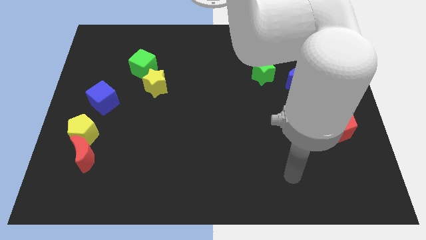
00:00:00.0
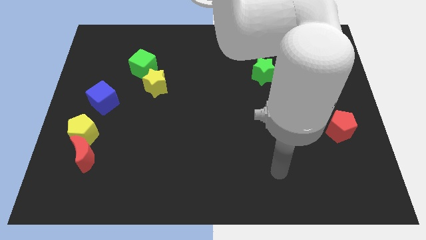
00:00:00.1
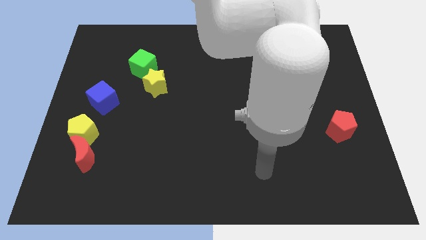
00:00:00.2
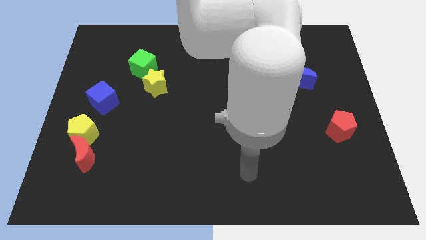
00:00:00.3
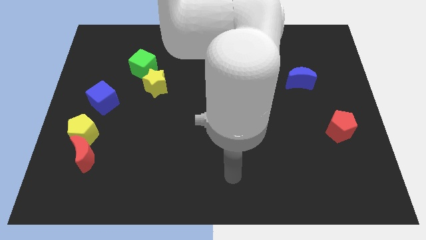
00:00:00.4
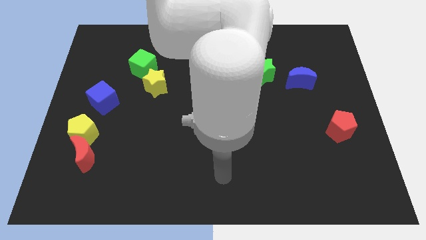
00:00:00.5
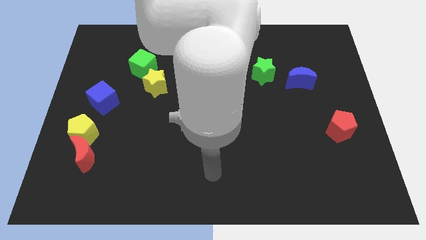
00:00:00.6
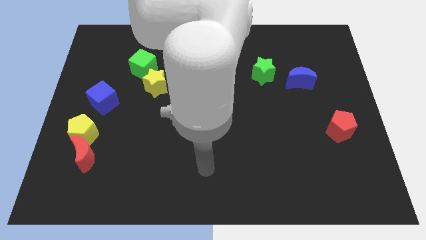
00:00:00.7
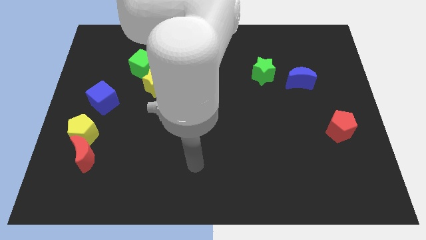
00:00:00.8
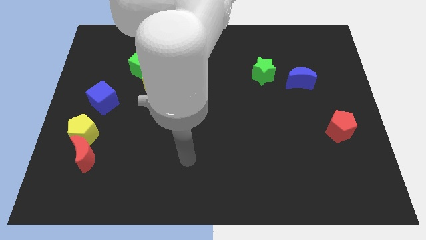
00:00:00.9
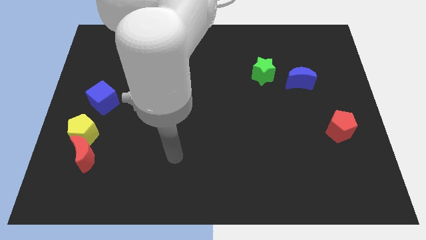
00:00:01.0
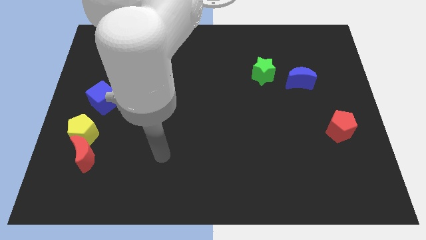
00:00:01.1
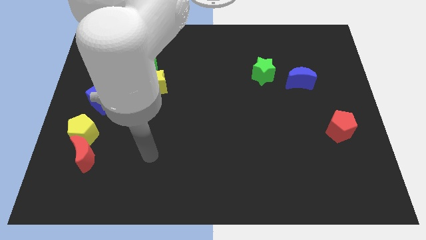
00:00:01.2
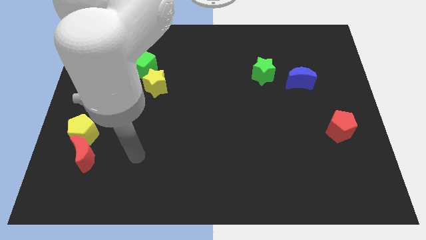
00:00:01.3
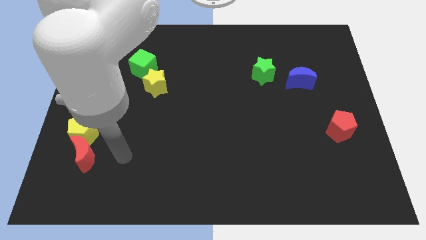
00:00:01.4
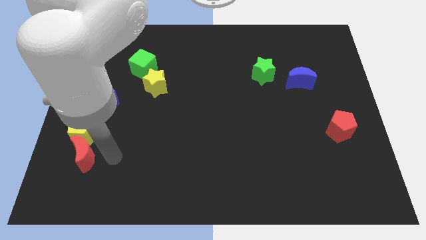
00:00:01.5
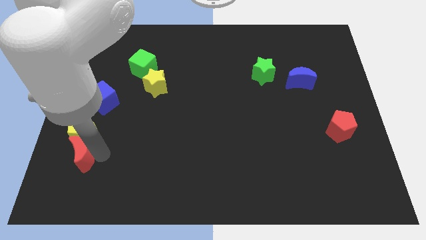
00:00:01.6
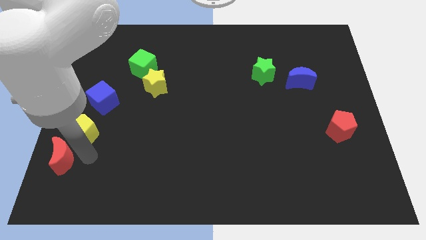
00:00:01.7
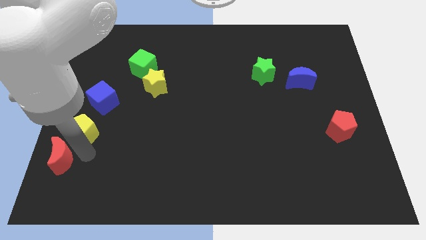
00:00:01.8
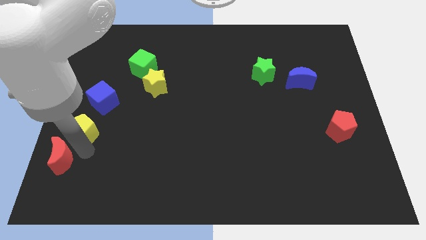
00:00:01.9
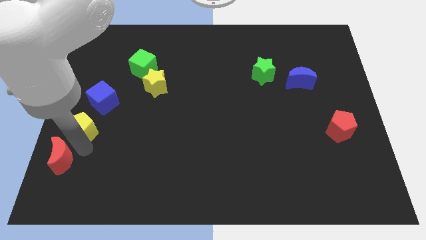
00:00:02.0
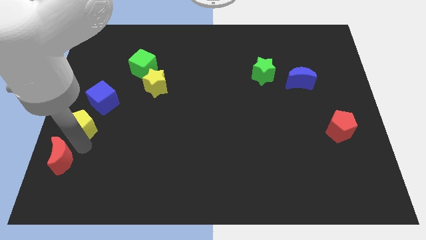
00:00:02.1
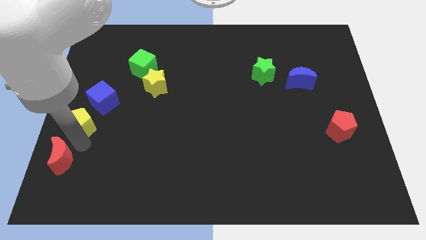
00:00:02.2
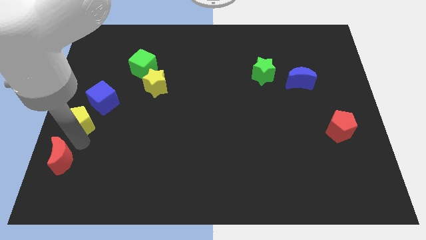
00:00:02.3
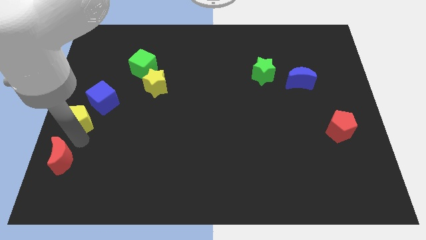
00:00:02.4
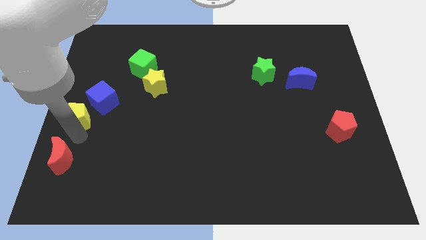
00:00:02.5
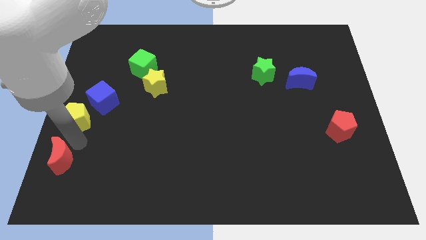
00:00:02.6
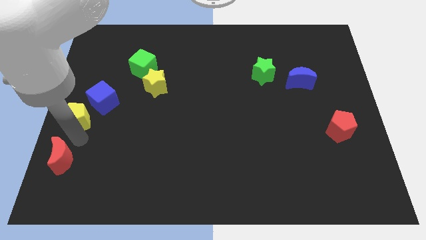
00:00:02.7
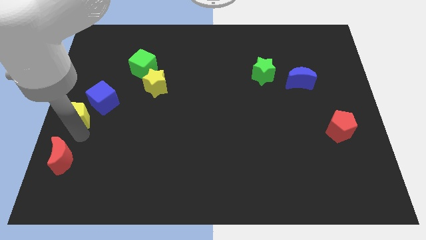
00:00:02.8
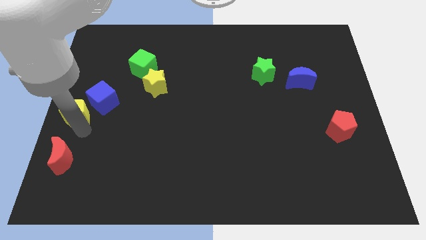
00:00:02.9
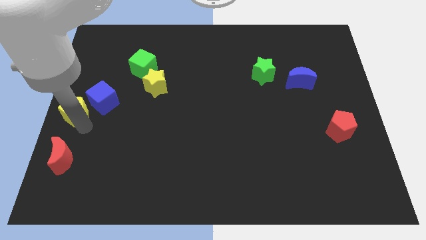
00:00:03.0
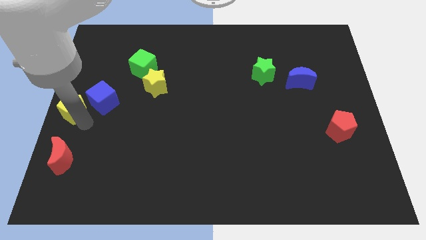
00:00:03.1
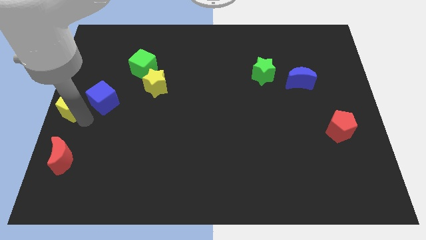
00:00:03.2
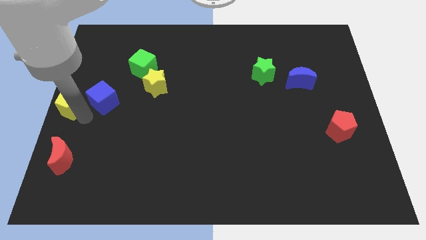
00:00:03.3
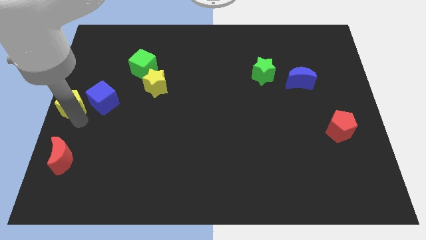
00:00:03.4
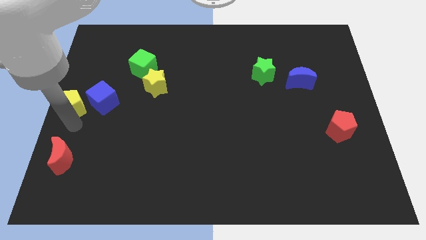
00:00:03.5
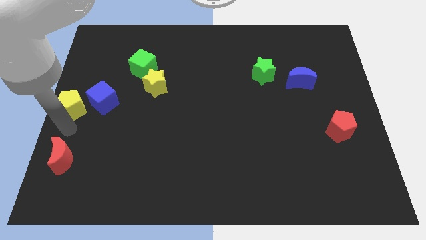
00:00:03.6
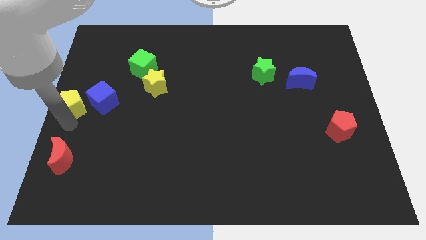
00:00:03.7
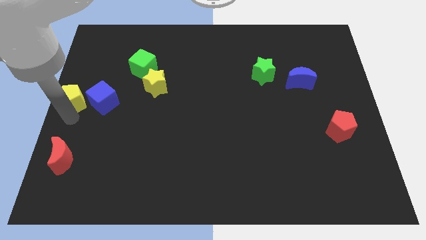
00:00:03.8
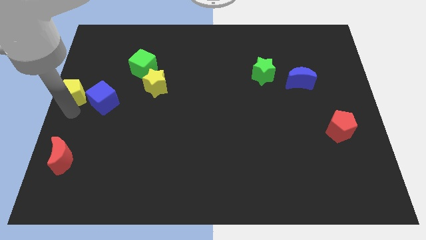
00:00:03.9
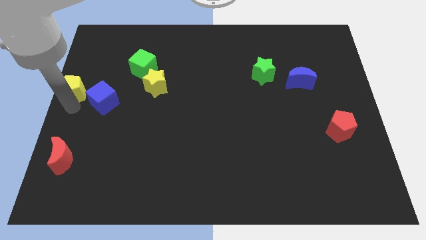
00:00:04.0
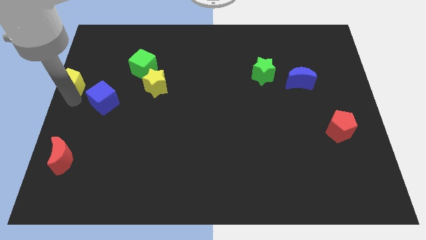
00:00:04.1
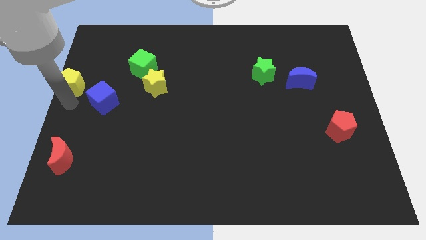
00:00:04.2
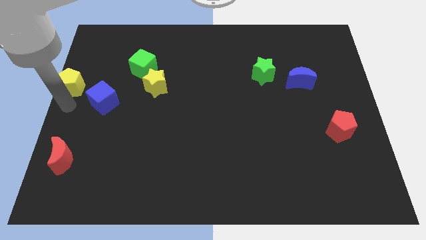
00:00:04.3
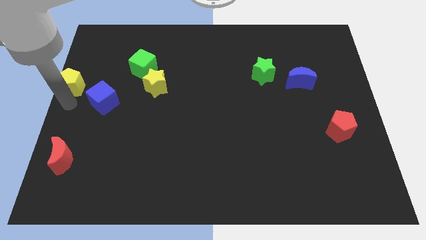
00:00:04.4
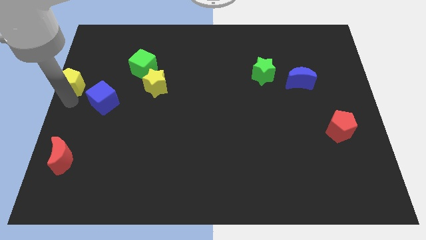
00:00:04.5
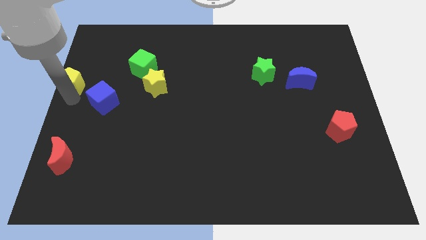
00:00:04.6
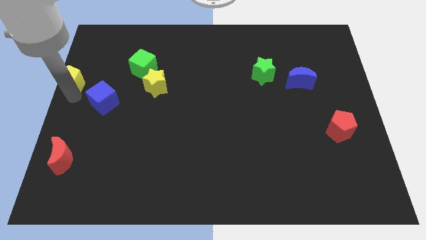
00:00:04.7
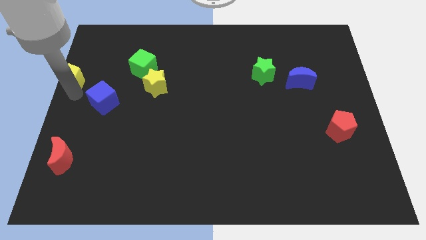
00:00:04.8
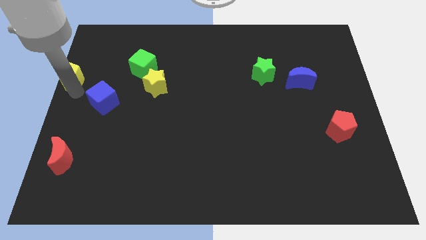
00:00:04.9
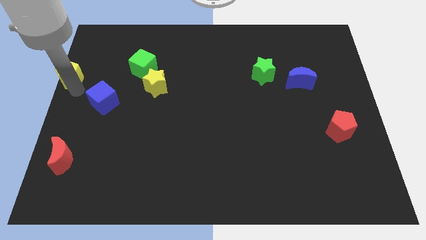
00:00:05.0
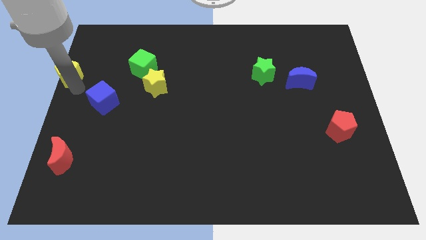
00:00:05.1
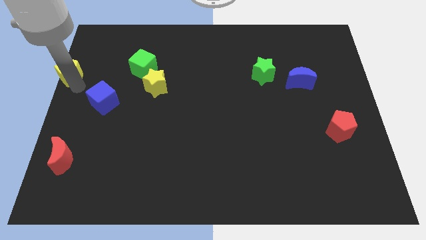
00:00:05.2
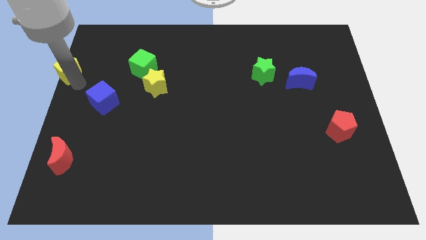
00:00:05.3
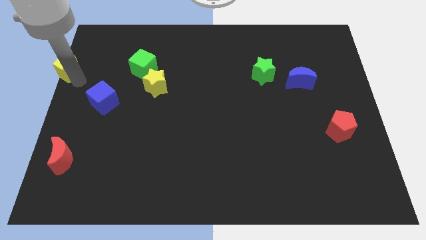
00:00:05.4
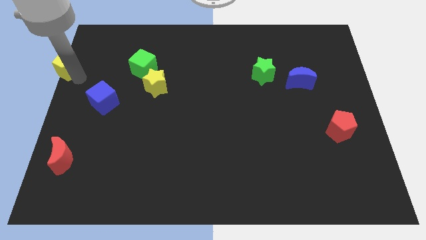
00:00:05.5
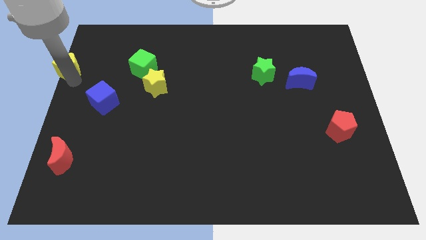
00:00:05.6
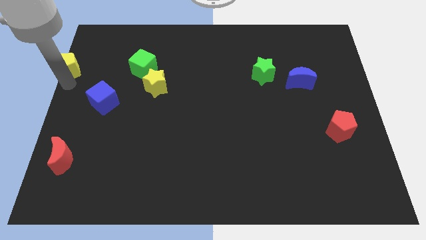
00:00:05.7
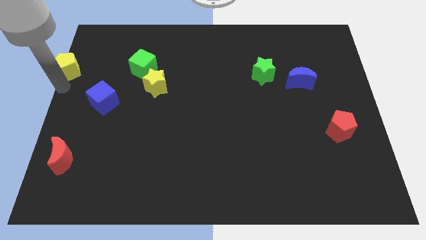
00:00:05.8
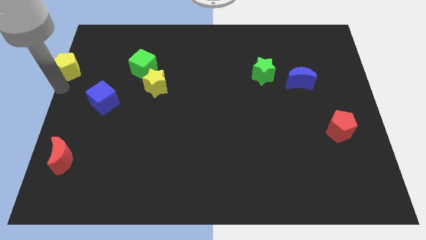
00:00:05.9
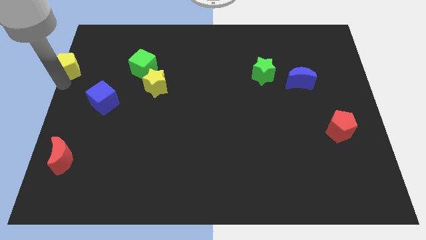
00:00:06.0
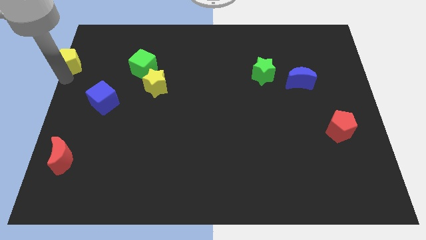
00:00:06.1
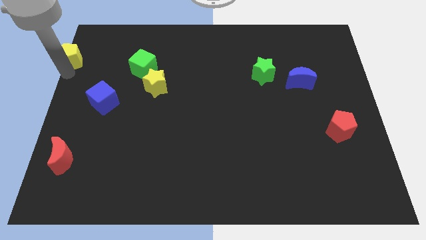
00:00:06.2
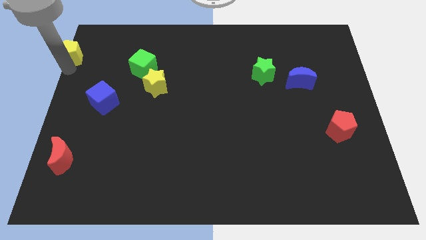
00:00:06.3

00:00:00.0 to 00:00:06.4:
slide the yellow pentagon to the top left

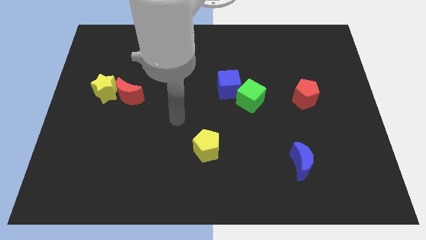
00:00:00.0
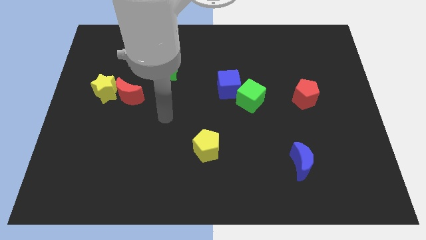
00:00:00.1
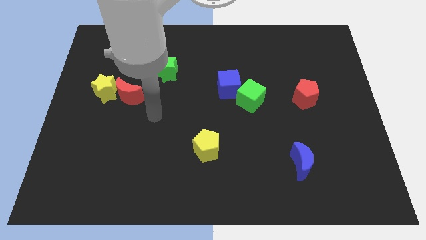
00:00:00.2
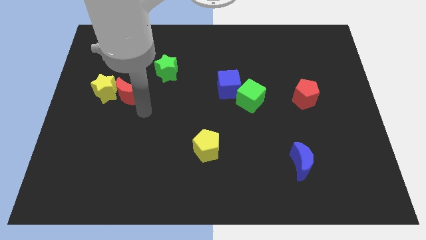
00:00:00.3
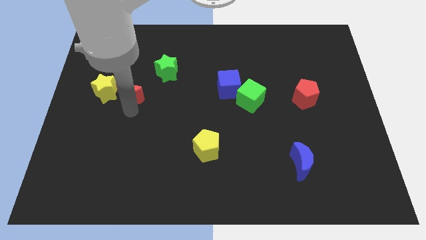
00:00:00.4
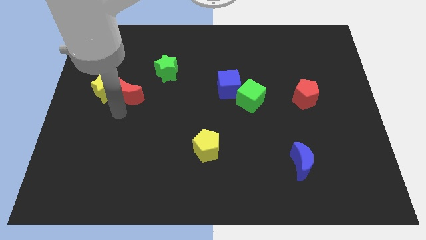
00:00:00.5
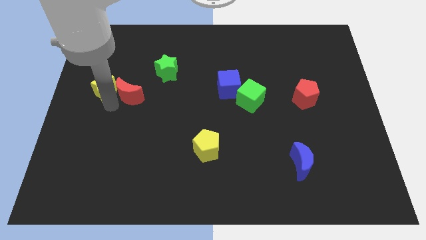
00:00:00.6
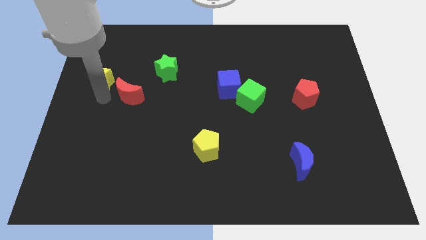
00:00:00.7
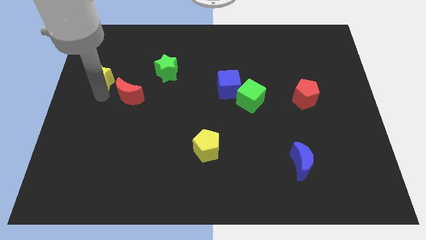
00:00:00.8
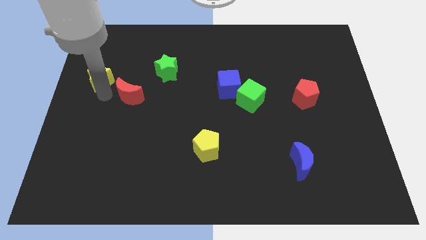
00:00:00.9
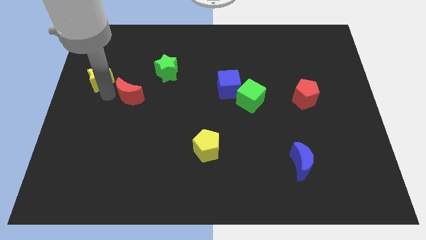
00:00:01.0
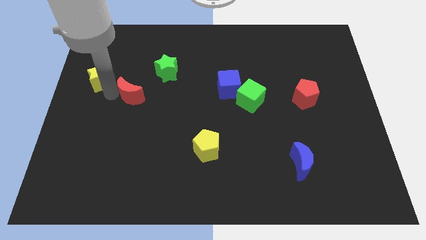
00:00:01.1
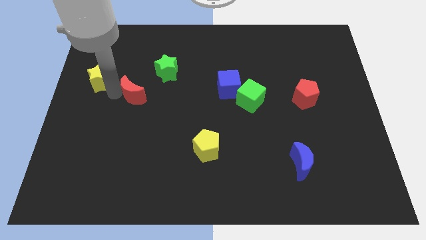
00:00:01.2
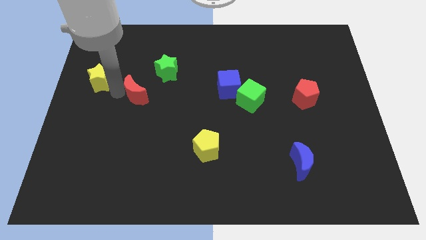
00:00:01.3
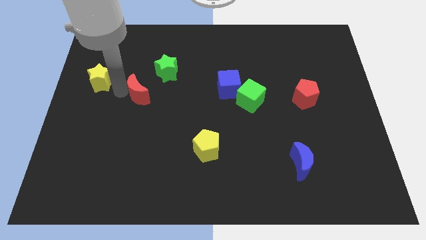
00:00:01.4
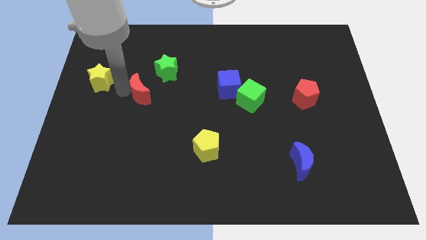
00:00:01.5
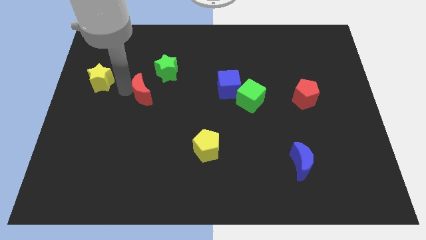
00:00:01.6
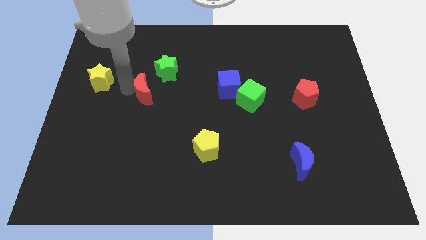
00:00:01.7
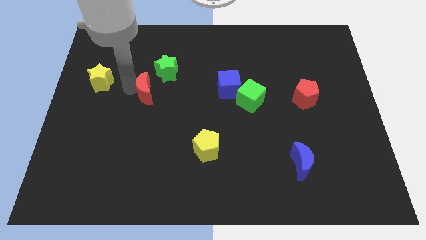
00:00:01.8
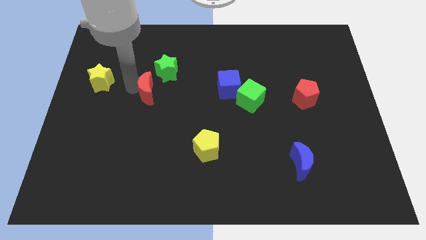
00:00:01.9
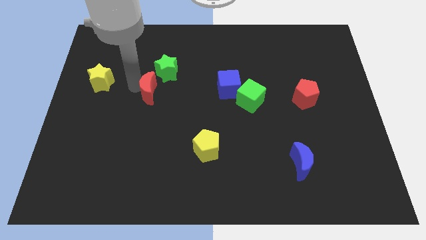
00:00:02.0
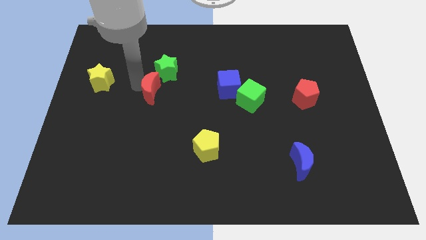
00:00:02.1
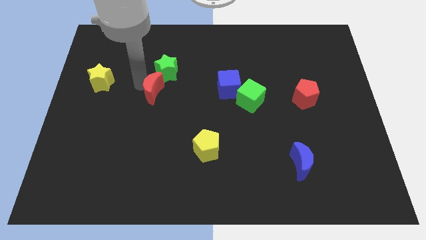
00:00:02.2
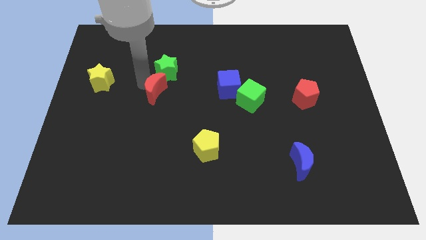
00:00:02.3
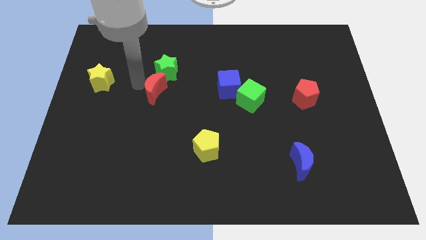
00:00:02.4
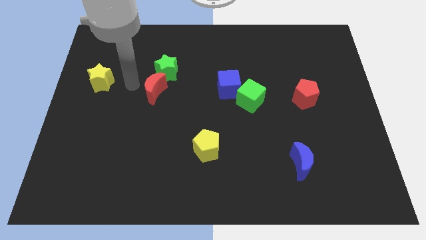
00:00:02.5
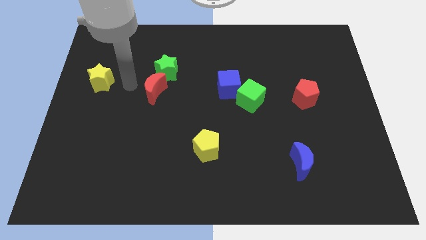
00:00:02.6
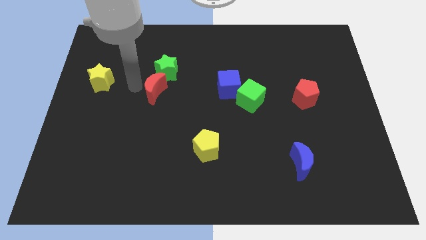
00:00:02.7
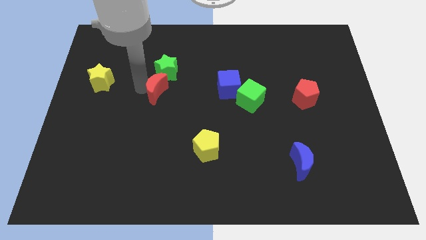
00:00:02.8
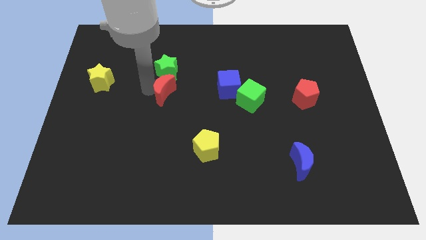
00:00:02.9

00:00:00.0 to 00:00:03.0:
push the red moon to the middle
